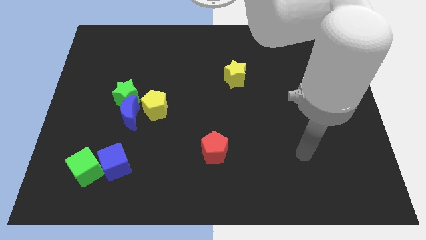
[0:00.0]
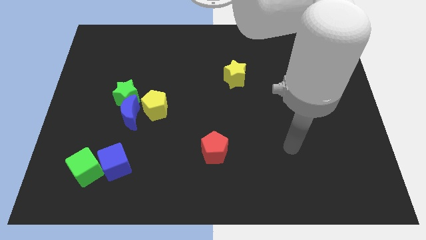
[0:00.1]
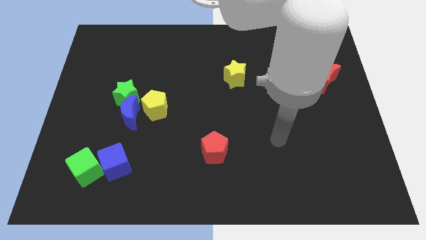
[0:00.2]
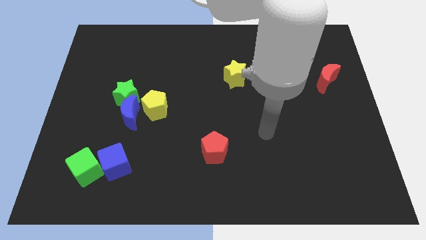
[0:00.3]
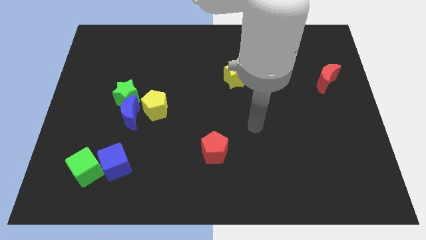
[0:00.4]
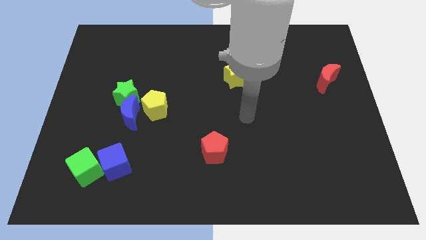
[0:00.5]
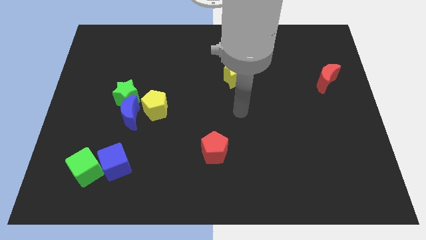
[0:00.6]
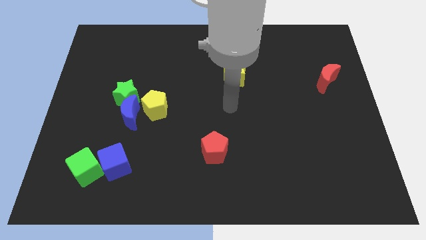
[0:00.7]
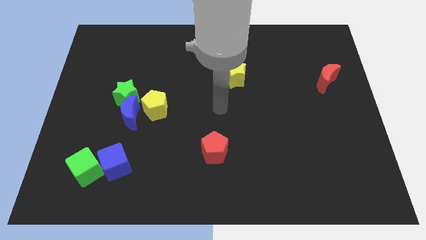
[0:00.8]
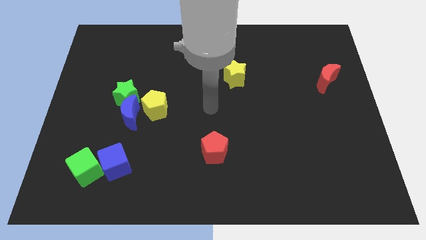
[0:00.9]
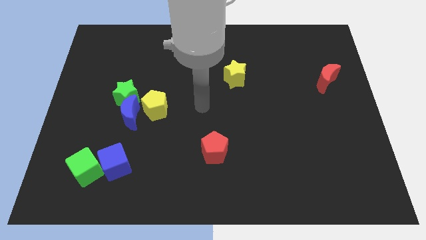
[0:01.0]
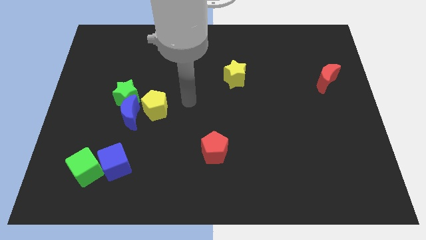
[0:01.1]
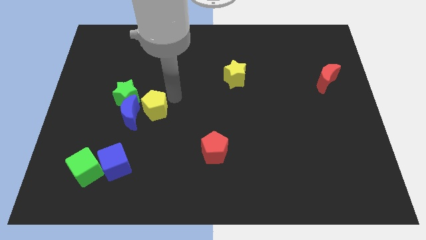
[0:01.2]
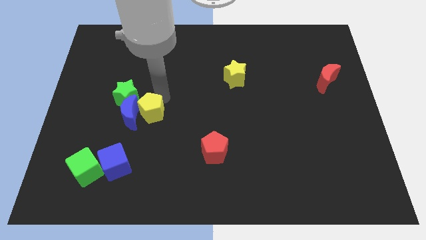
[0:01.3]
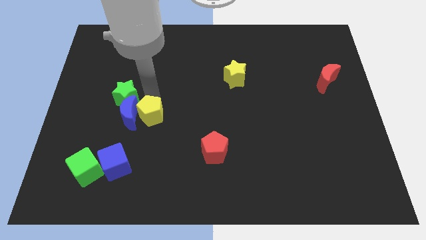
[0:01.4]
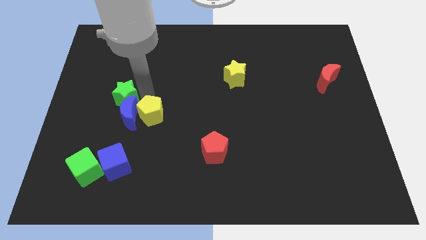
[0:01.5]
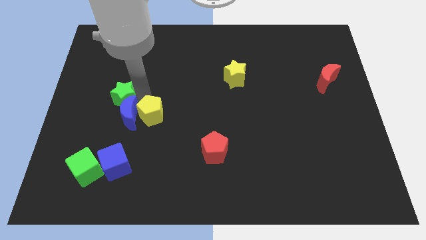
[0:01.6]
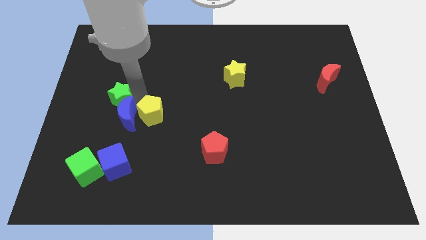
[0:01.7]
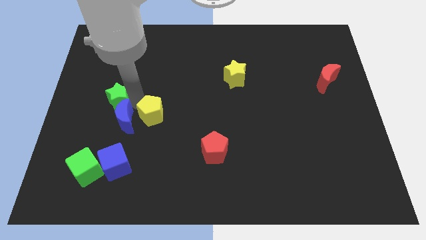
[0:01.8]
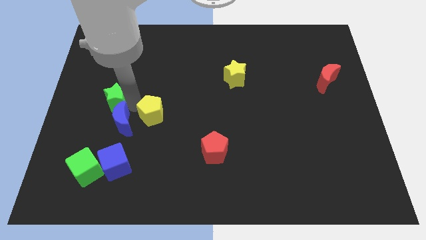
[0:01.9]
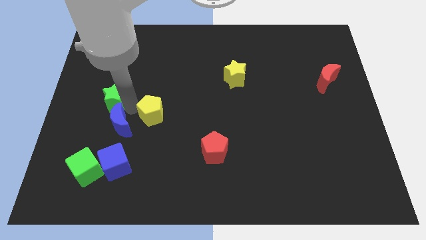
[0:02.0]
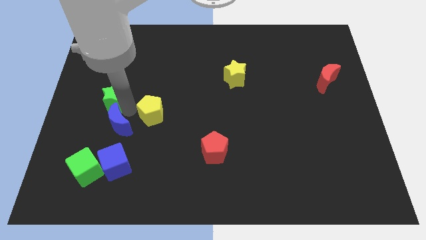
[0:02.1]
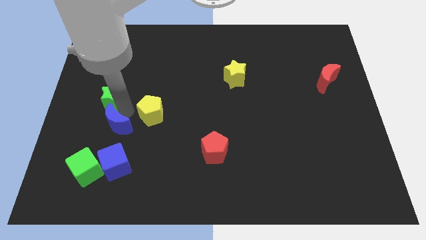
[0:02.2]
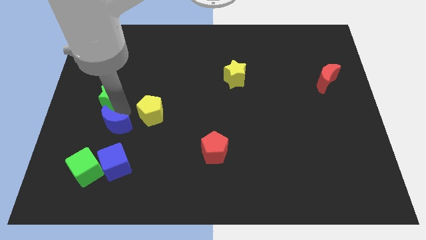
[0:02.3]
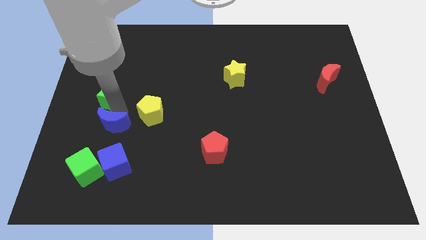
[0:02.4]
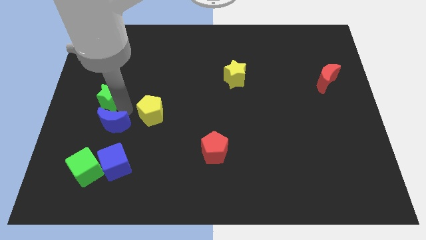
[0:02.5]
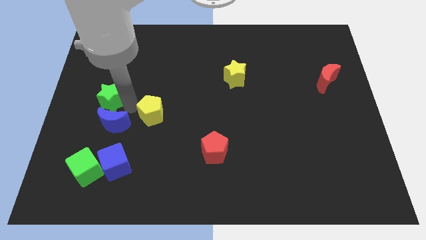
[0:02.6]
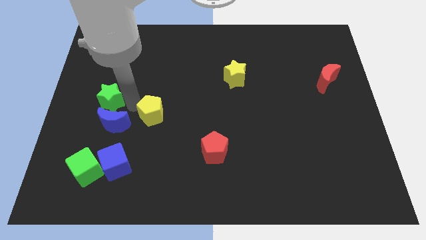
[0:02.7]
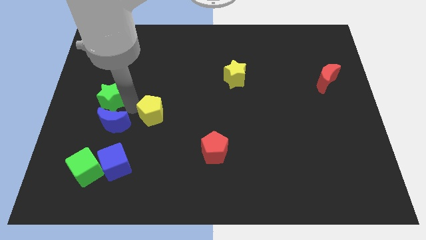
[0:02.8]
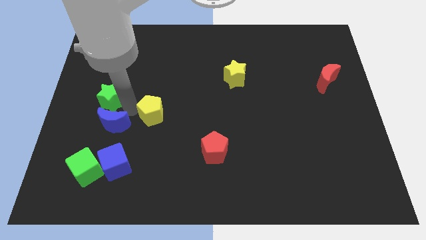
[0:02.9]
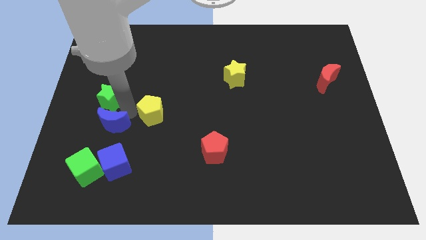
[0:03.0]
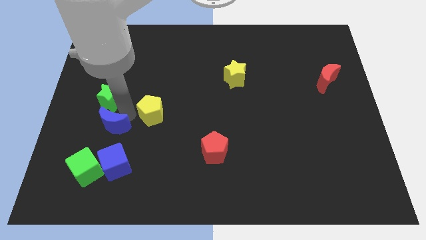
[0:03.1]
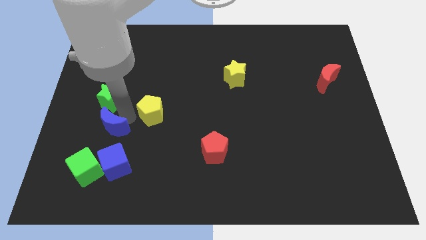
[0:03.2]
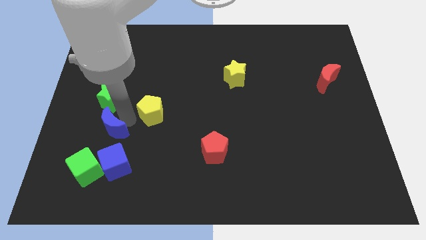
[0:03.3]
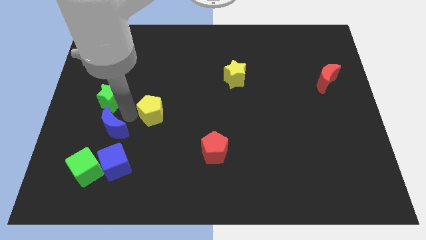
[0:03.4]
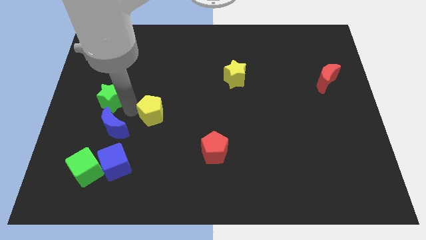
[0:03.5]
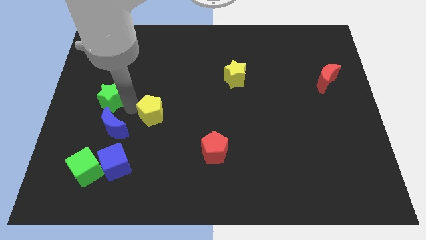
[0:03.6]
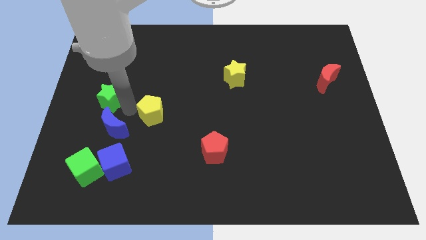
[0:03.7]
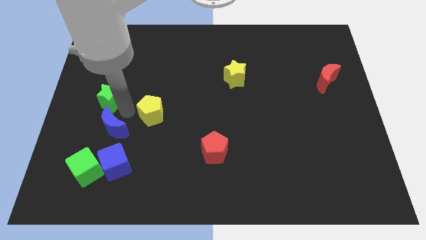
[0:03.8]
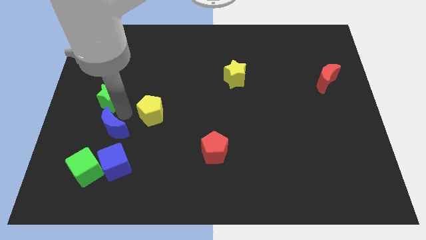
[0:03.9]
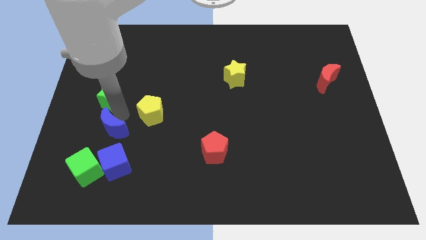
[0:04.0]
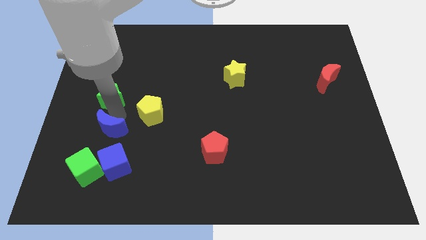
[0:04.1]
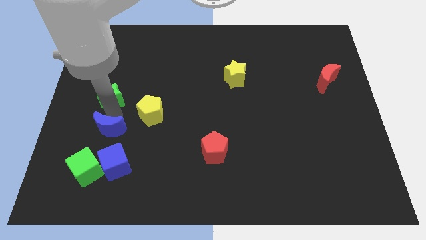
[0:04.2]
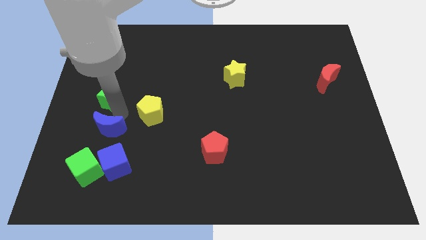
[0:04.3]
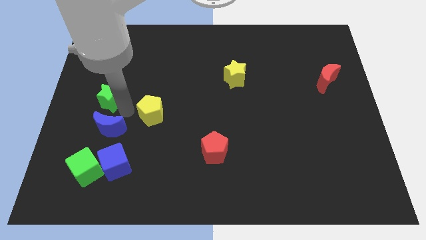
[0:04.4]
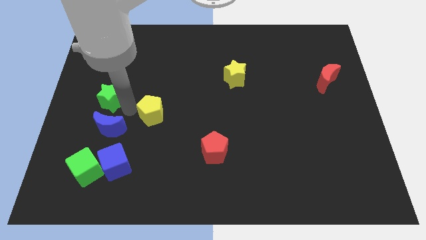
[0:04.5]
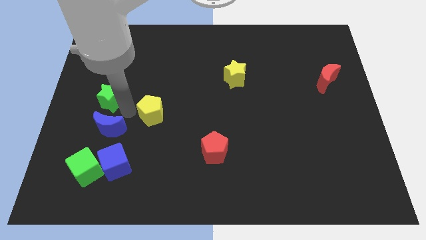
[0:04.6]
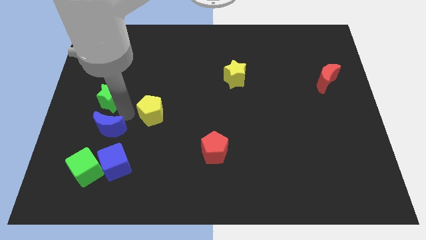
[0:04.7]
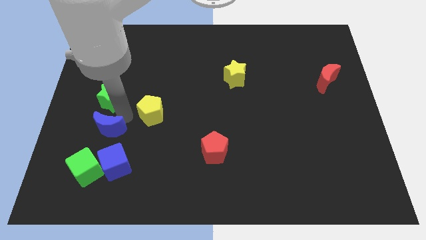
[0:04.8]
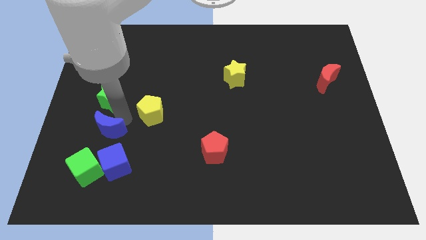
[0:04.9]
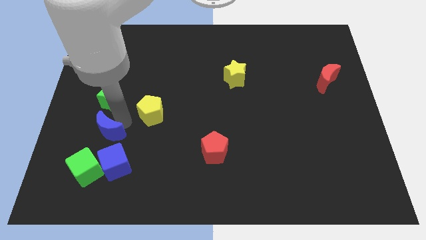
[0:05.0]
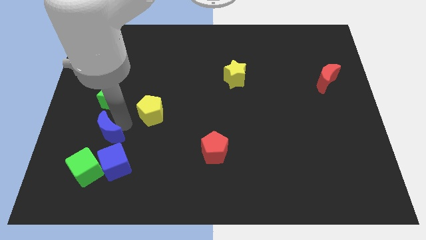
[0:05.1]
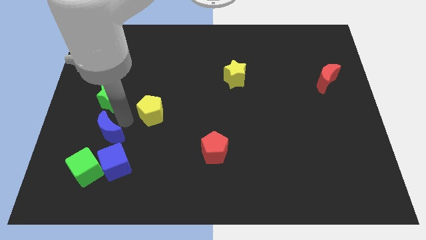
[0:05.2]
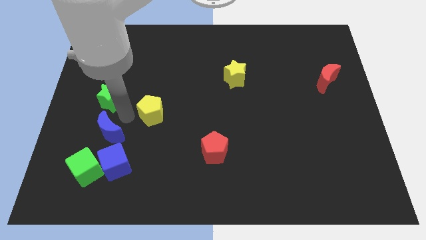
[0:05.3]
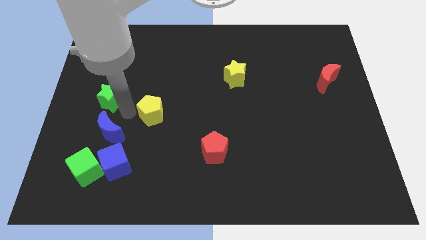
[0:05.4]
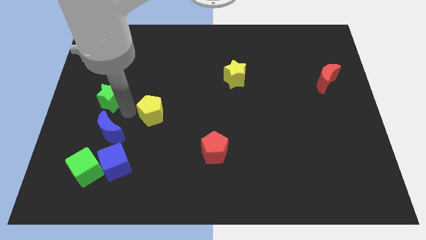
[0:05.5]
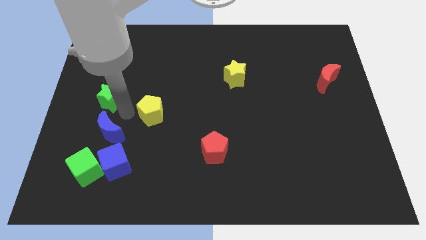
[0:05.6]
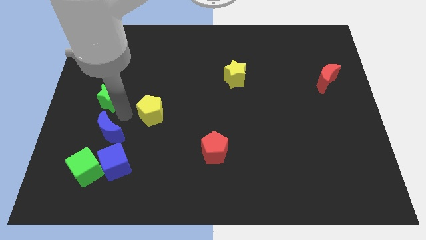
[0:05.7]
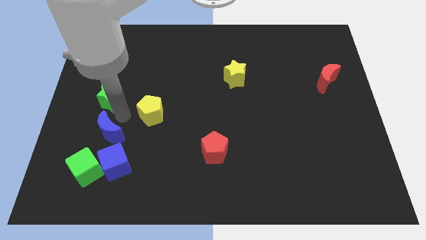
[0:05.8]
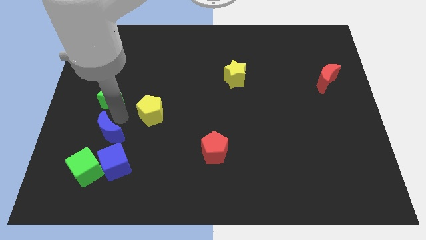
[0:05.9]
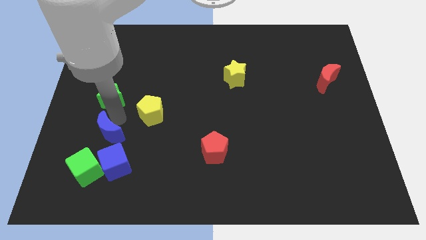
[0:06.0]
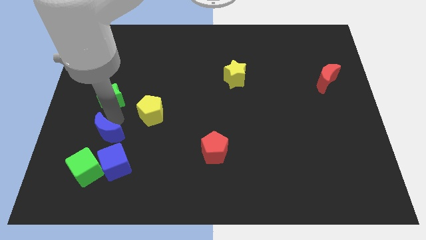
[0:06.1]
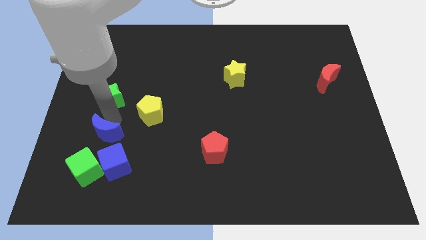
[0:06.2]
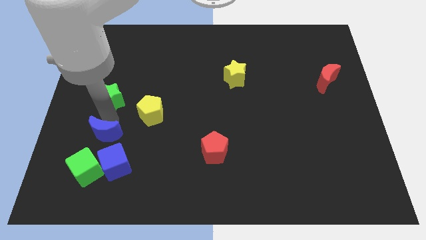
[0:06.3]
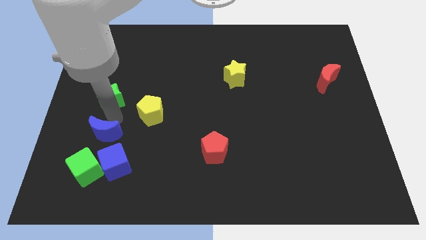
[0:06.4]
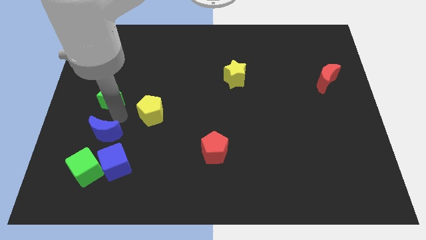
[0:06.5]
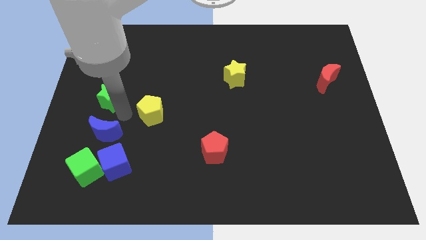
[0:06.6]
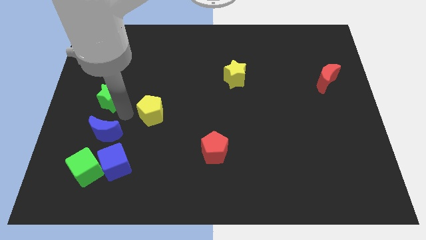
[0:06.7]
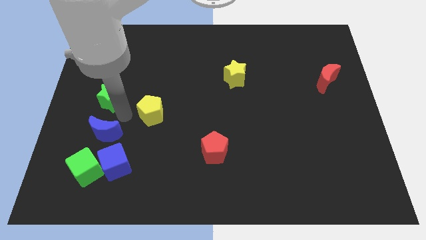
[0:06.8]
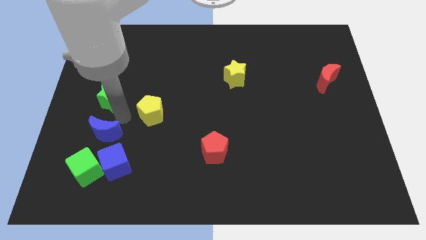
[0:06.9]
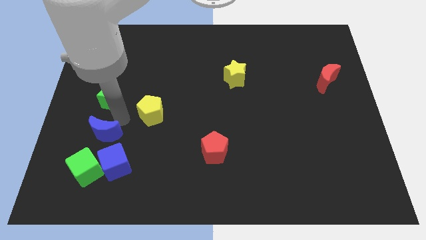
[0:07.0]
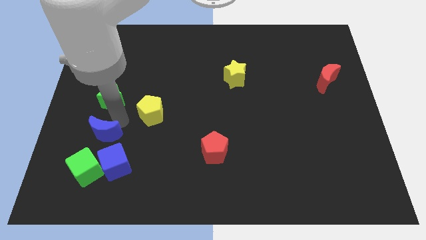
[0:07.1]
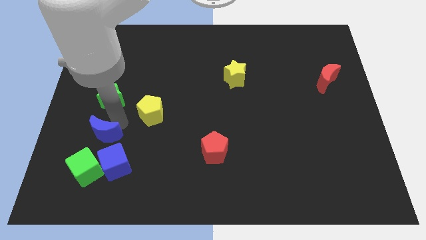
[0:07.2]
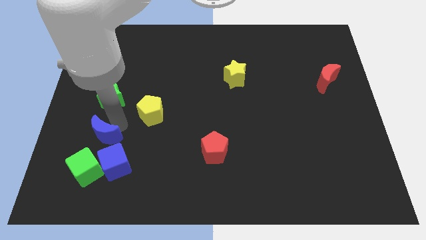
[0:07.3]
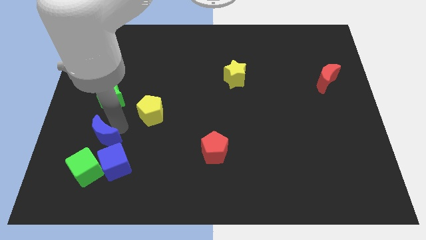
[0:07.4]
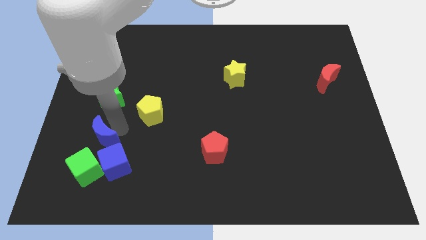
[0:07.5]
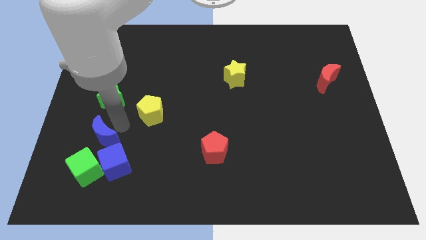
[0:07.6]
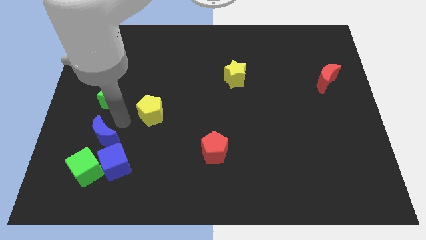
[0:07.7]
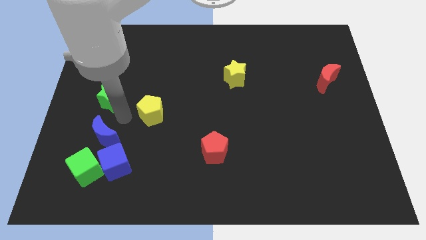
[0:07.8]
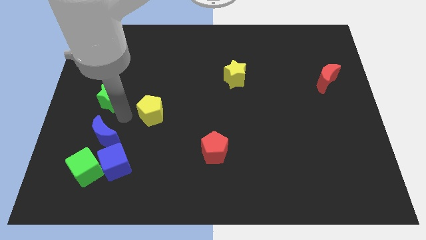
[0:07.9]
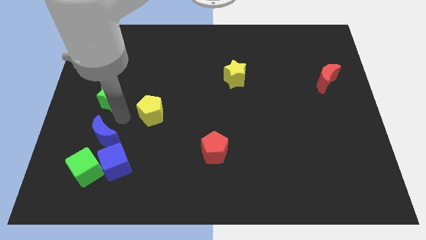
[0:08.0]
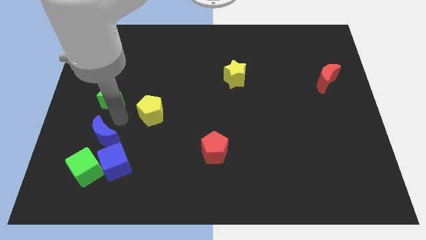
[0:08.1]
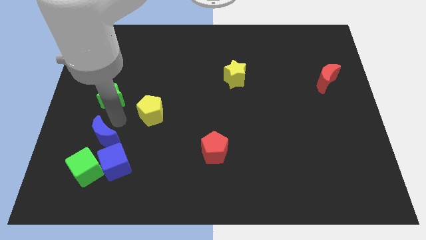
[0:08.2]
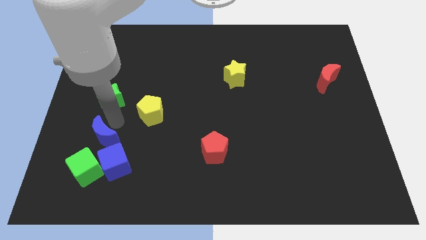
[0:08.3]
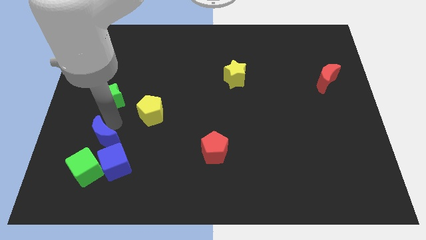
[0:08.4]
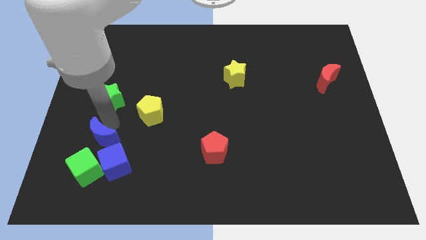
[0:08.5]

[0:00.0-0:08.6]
pull the blue moon apart from the green star and yellow pentagon

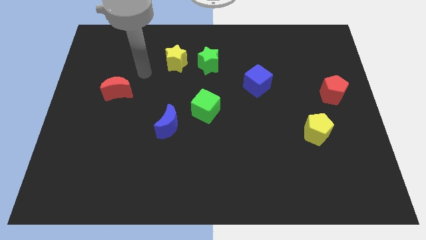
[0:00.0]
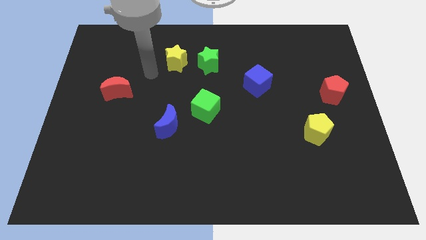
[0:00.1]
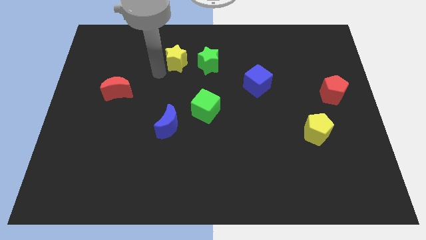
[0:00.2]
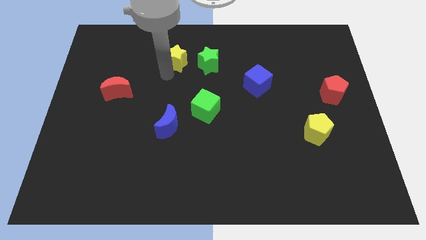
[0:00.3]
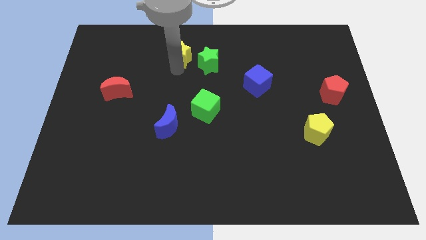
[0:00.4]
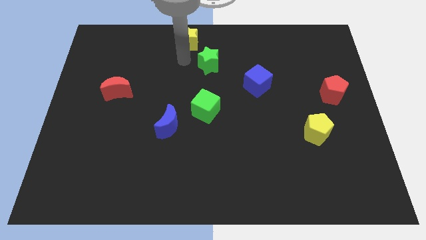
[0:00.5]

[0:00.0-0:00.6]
pull the green star apart from the yellow star
